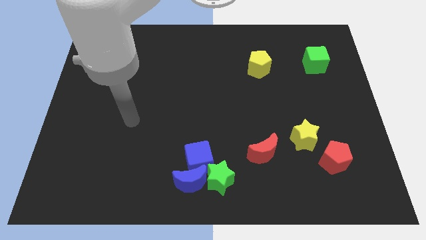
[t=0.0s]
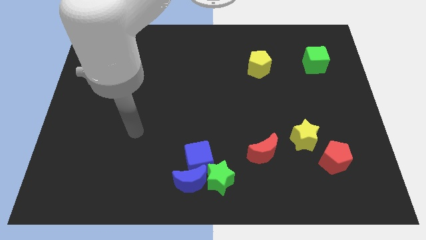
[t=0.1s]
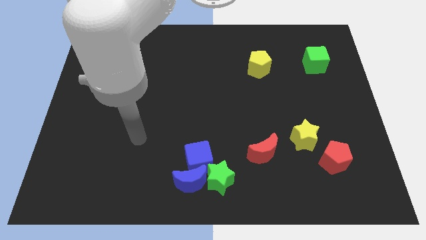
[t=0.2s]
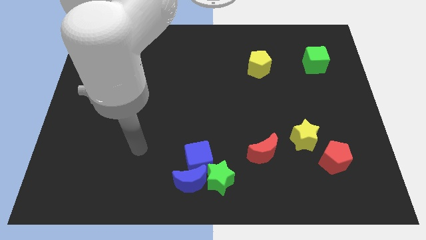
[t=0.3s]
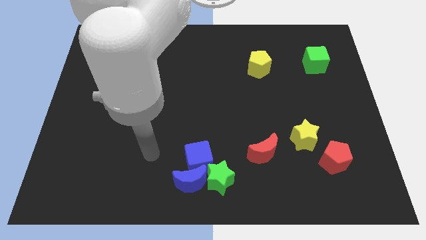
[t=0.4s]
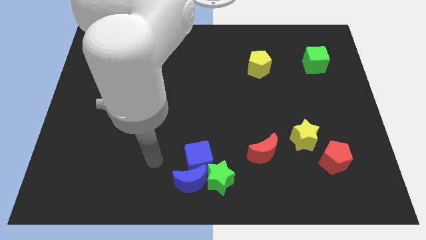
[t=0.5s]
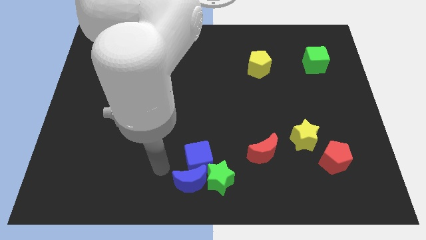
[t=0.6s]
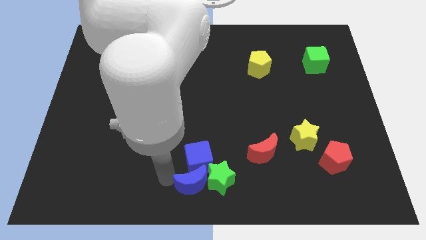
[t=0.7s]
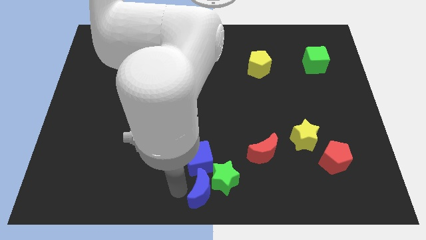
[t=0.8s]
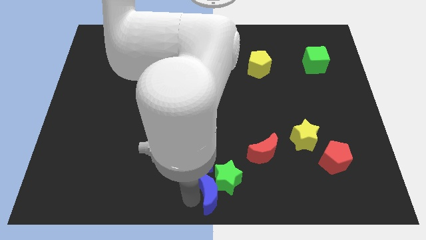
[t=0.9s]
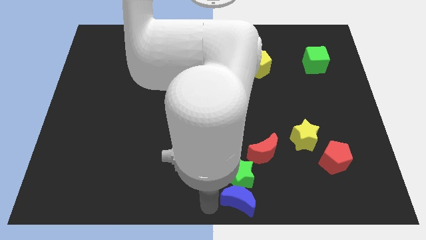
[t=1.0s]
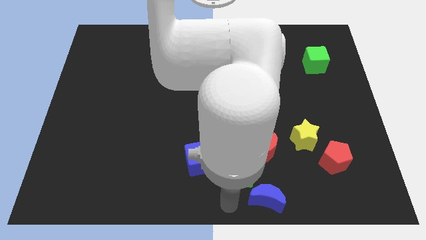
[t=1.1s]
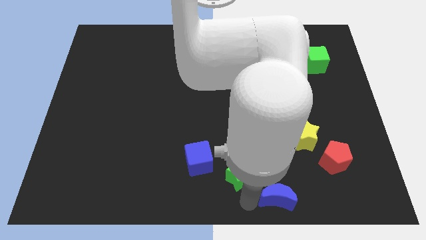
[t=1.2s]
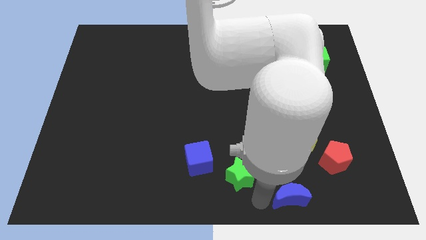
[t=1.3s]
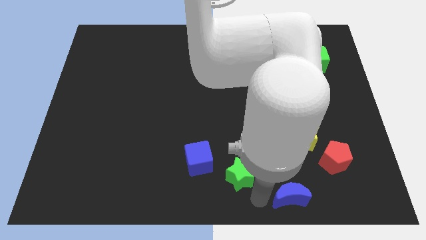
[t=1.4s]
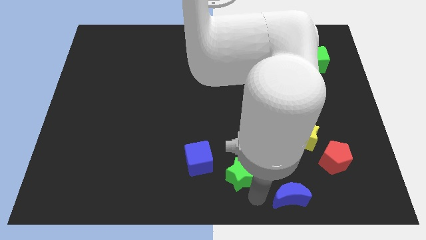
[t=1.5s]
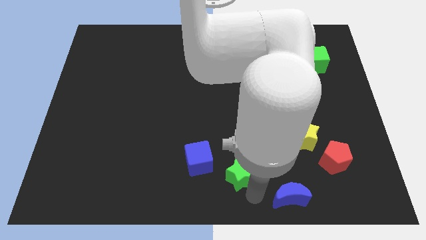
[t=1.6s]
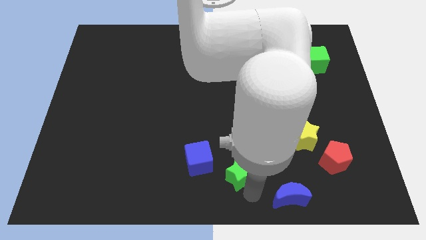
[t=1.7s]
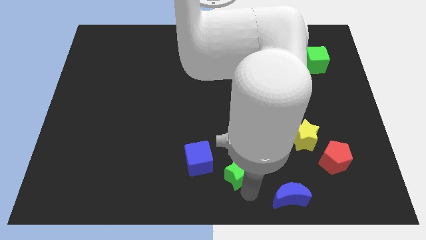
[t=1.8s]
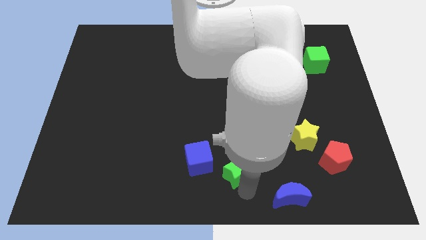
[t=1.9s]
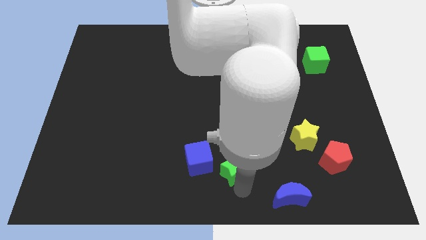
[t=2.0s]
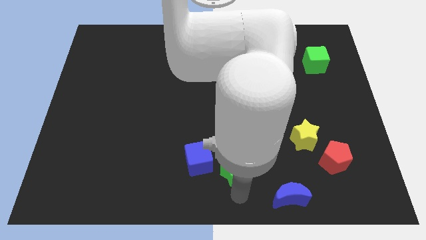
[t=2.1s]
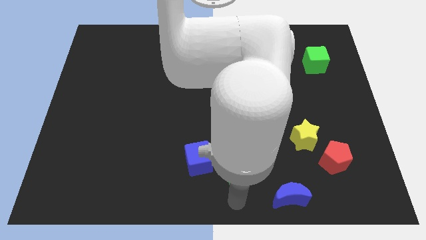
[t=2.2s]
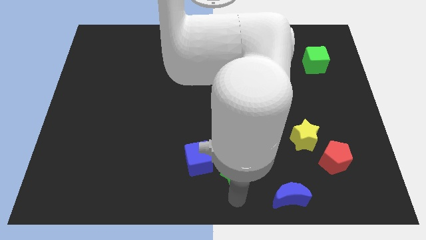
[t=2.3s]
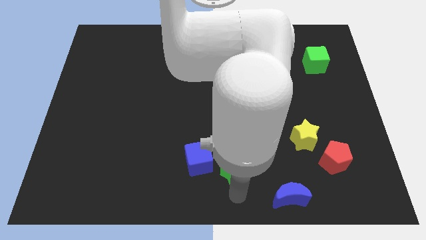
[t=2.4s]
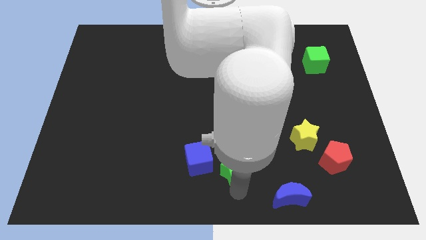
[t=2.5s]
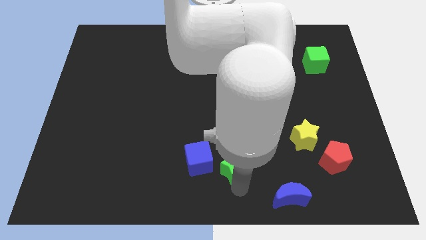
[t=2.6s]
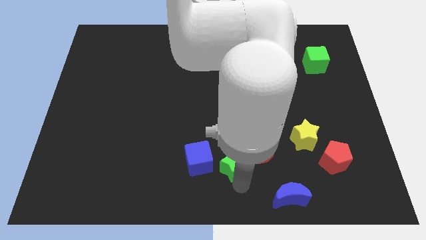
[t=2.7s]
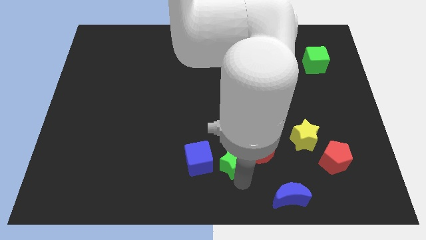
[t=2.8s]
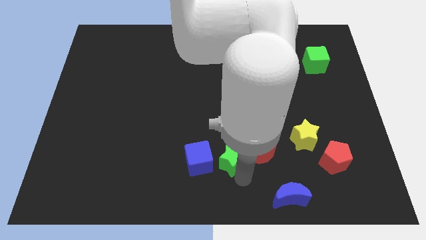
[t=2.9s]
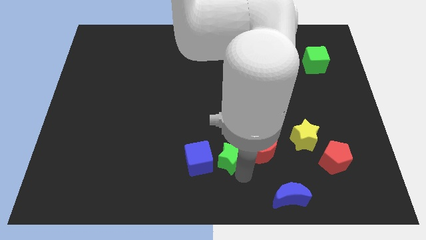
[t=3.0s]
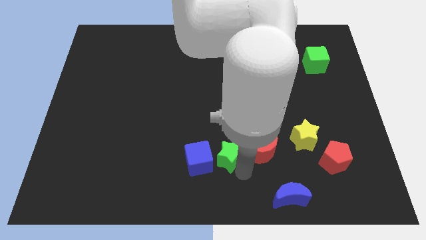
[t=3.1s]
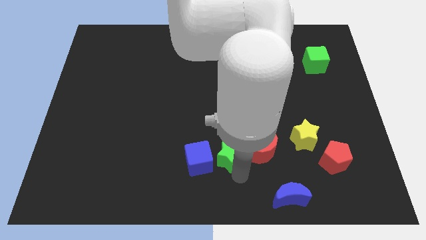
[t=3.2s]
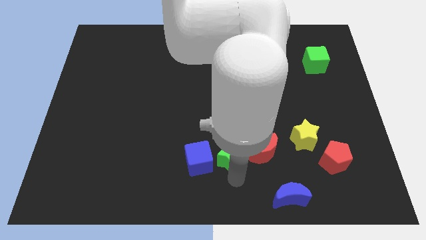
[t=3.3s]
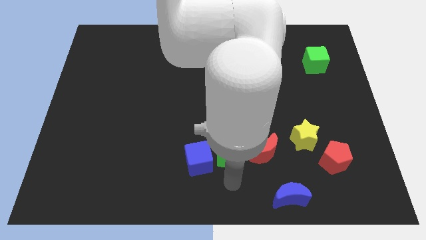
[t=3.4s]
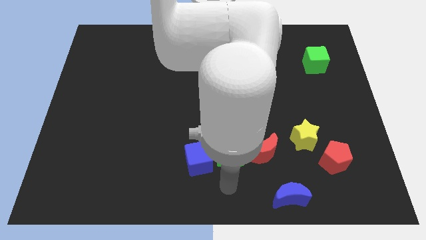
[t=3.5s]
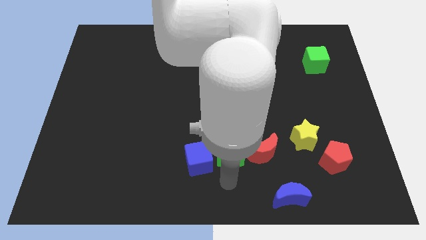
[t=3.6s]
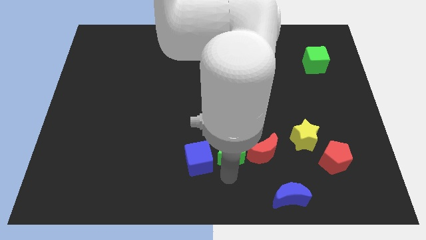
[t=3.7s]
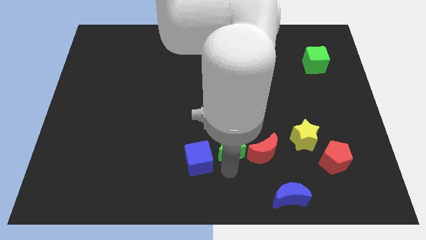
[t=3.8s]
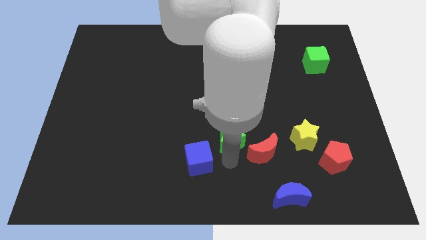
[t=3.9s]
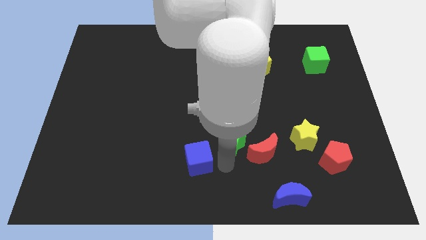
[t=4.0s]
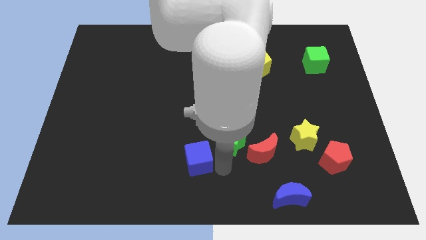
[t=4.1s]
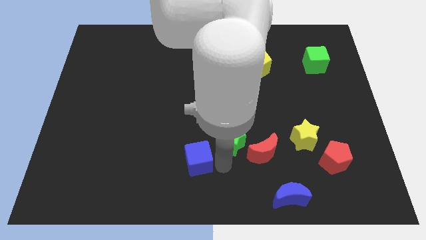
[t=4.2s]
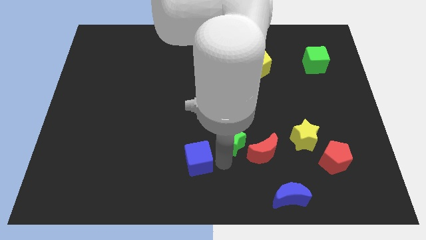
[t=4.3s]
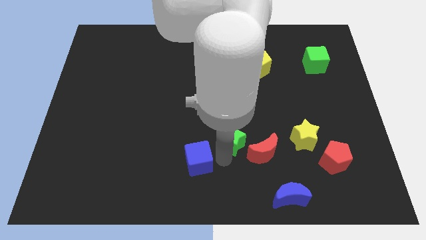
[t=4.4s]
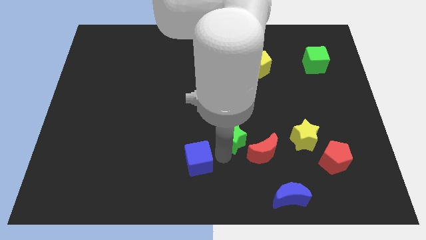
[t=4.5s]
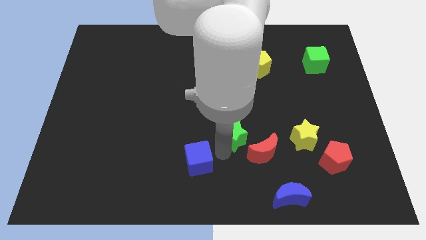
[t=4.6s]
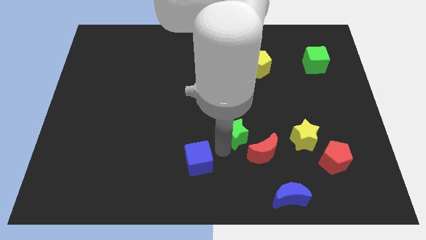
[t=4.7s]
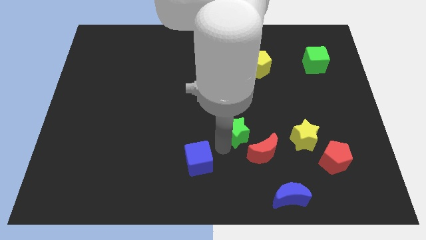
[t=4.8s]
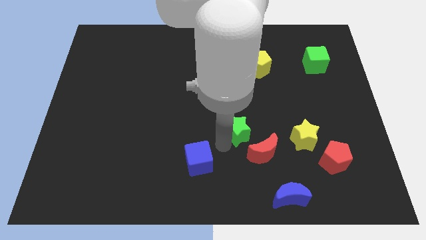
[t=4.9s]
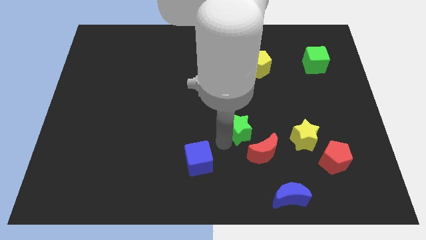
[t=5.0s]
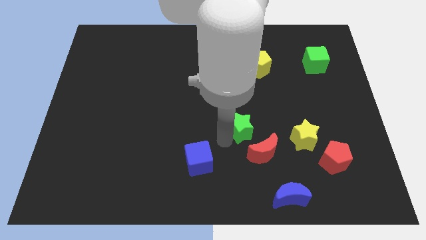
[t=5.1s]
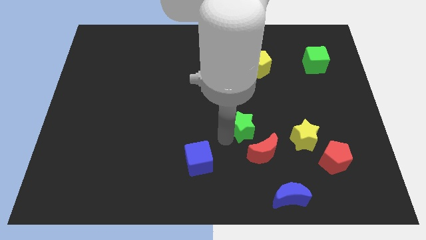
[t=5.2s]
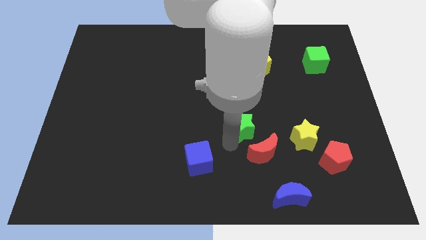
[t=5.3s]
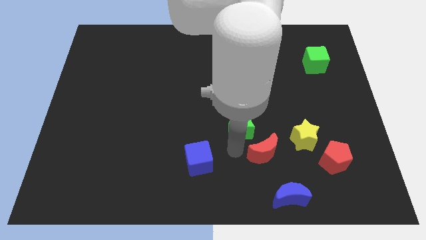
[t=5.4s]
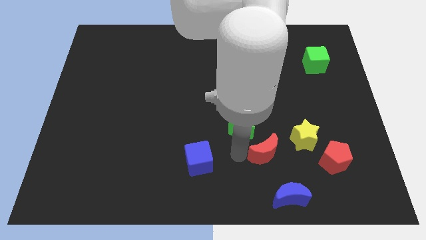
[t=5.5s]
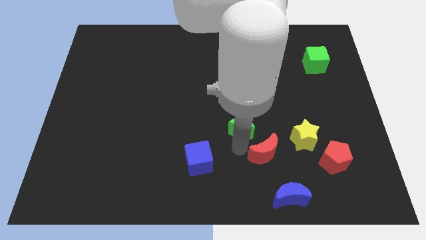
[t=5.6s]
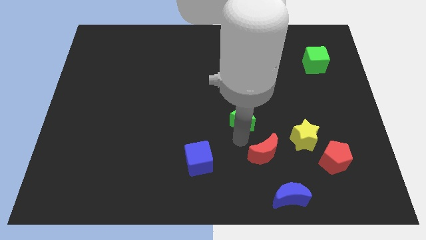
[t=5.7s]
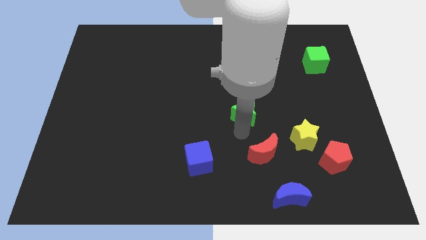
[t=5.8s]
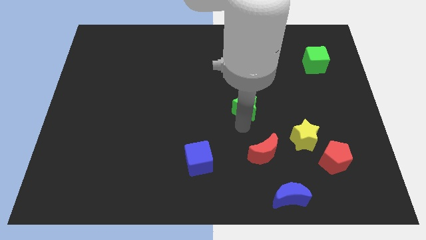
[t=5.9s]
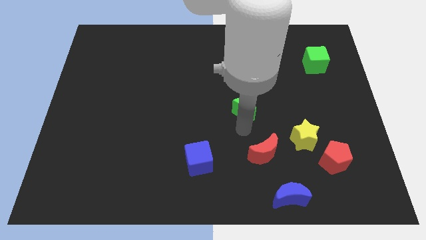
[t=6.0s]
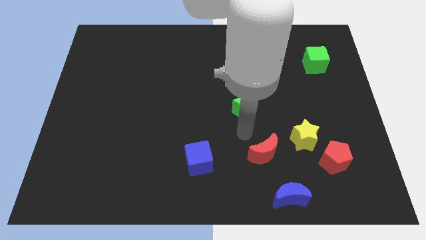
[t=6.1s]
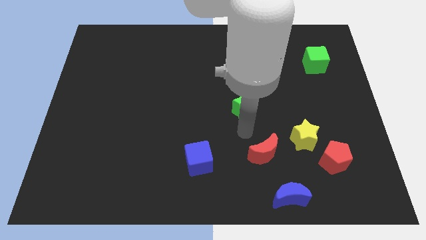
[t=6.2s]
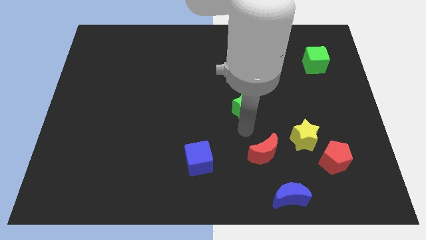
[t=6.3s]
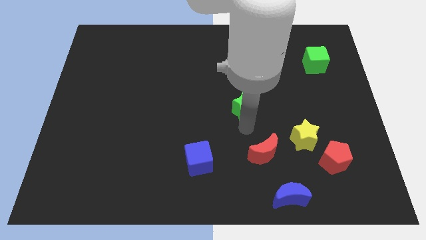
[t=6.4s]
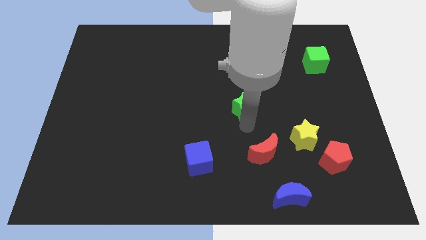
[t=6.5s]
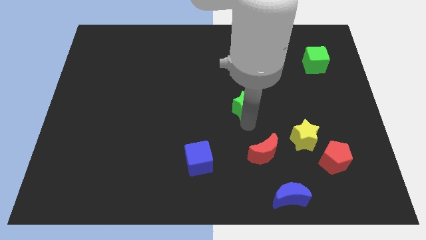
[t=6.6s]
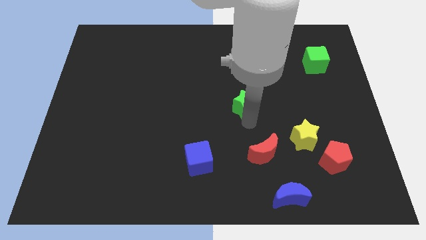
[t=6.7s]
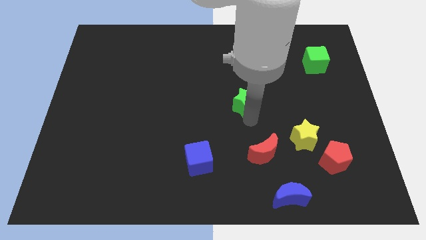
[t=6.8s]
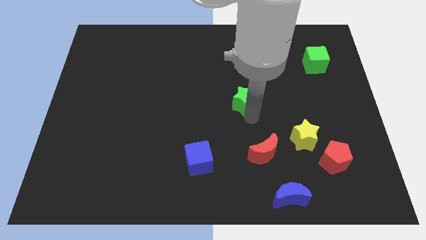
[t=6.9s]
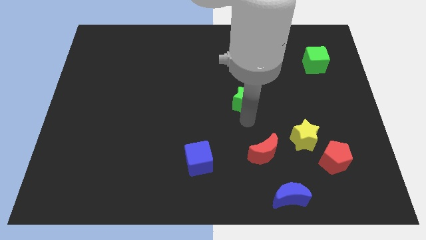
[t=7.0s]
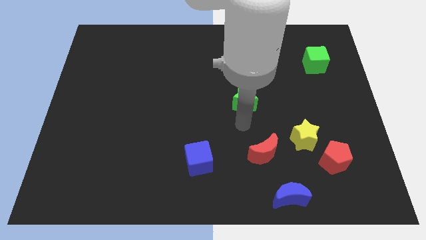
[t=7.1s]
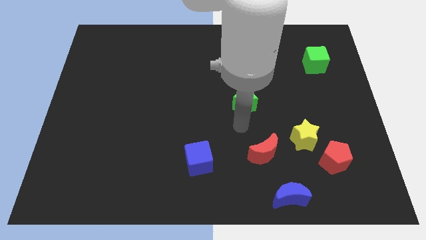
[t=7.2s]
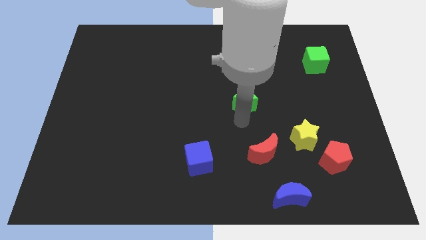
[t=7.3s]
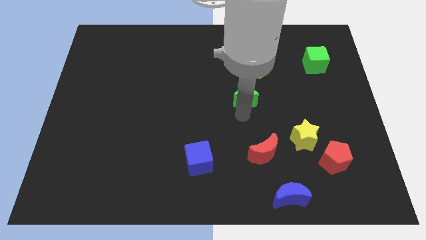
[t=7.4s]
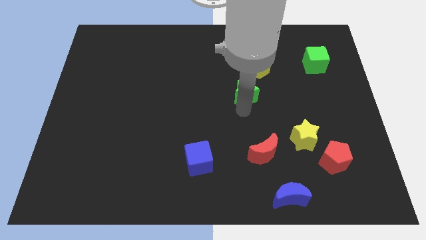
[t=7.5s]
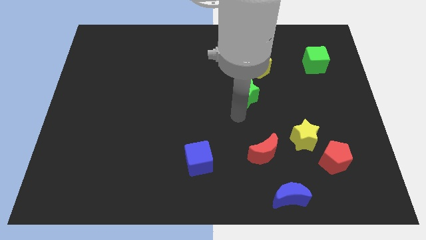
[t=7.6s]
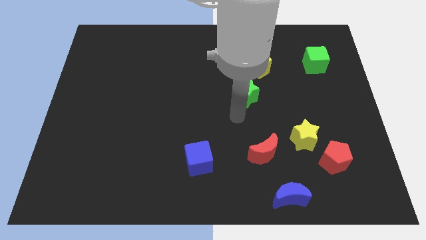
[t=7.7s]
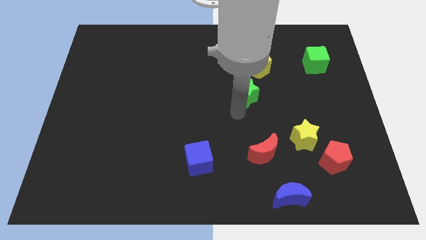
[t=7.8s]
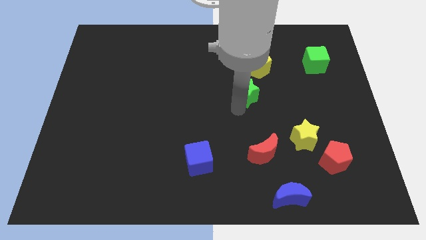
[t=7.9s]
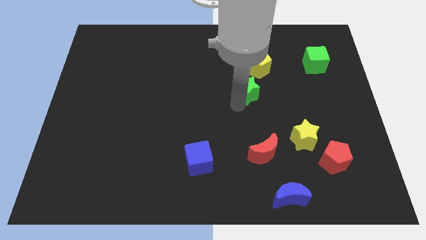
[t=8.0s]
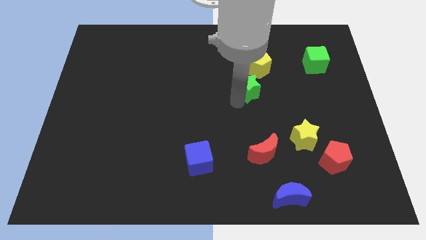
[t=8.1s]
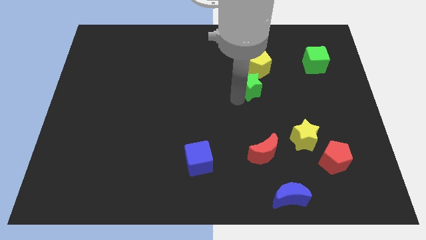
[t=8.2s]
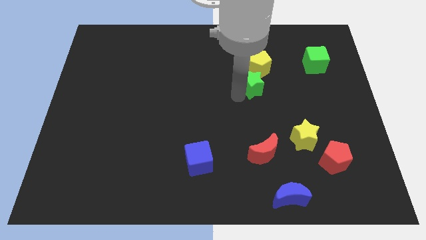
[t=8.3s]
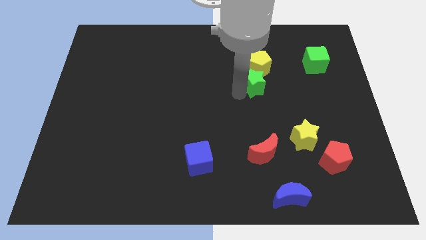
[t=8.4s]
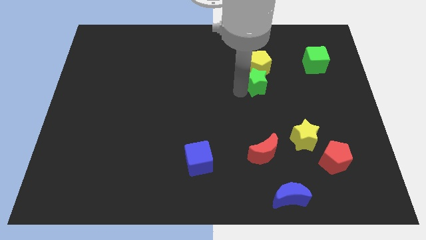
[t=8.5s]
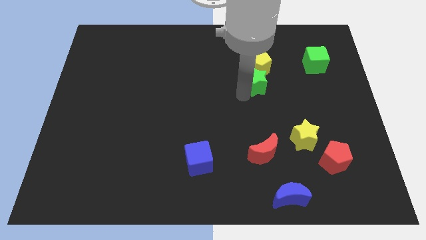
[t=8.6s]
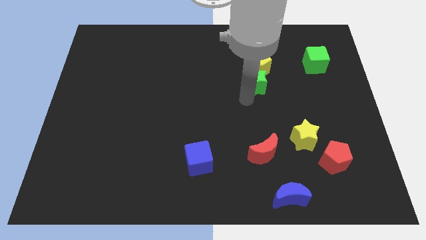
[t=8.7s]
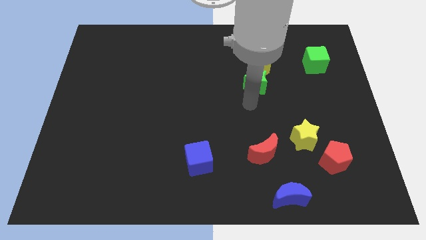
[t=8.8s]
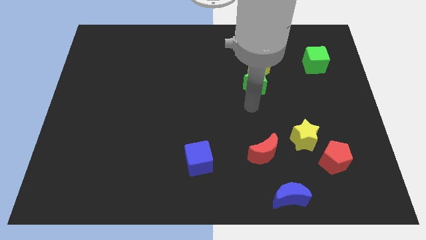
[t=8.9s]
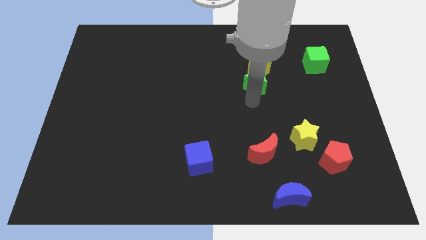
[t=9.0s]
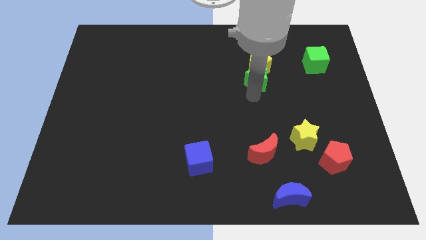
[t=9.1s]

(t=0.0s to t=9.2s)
put the green star to the yellow pentagon
